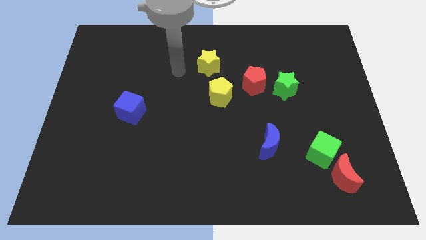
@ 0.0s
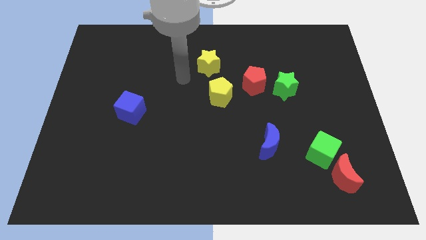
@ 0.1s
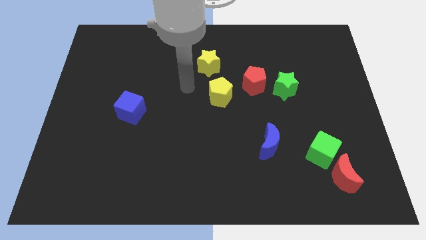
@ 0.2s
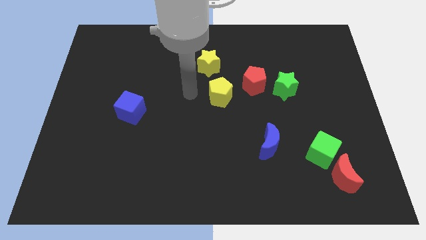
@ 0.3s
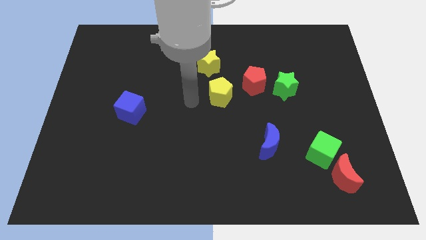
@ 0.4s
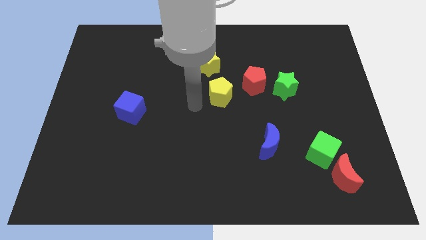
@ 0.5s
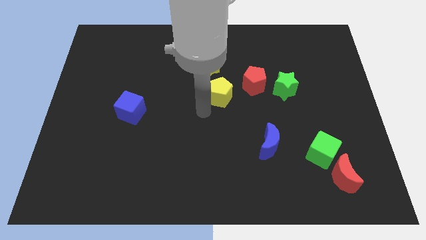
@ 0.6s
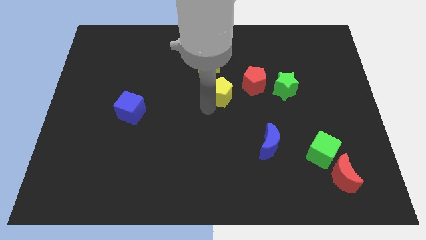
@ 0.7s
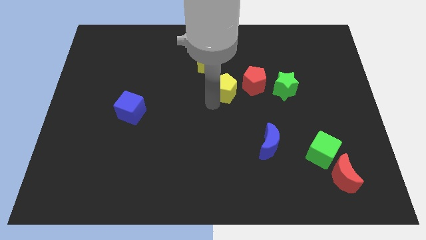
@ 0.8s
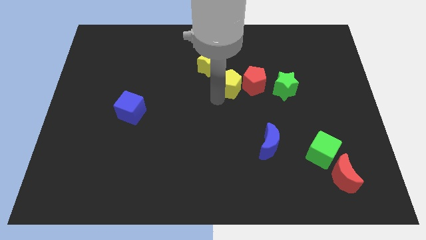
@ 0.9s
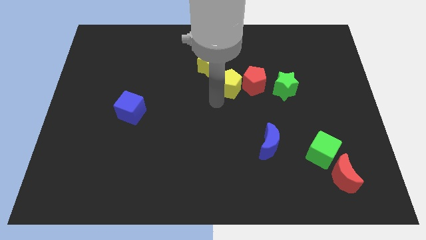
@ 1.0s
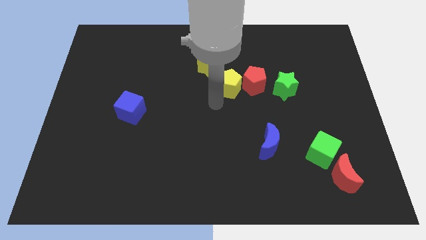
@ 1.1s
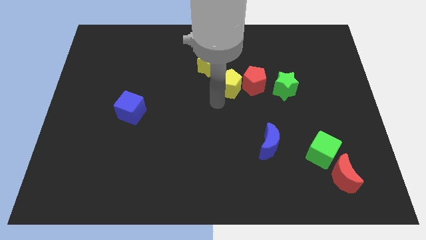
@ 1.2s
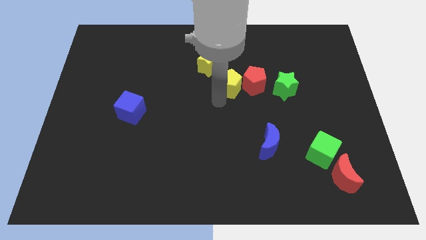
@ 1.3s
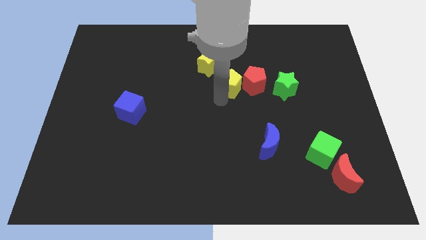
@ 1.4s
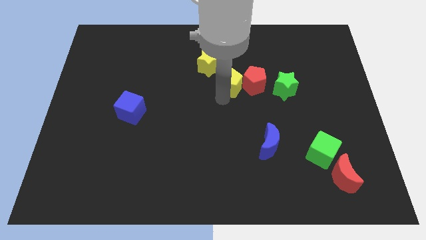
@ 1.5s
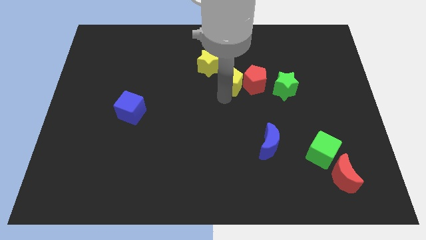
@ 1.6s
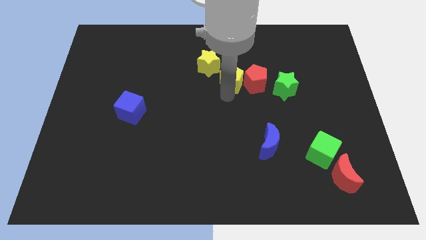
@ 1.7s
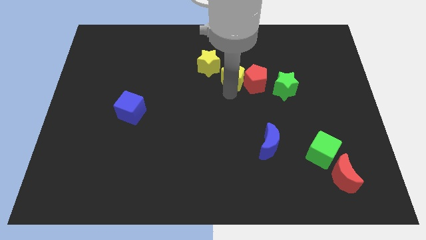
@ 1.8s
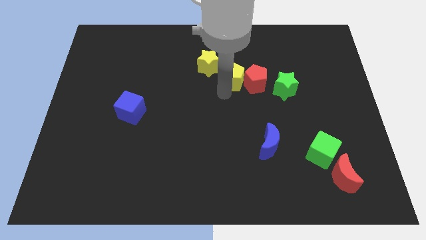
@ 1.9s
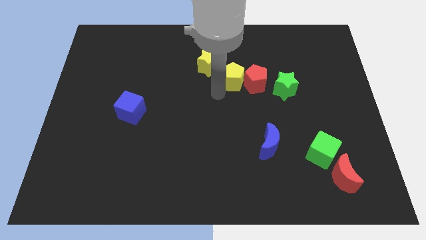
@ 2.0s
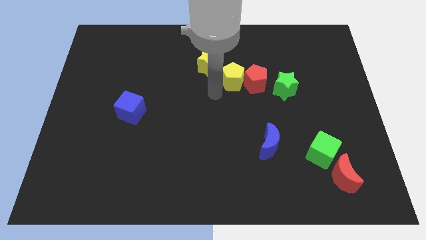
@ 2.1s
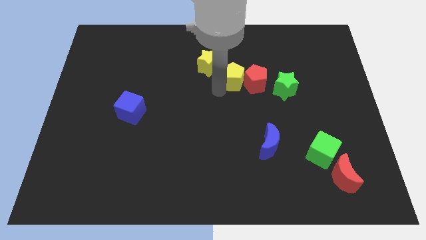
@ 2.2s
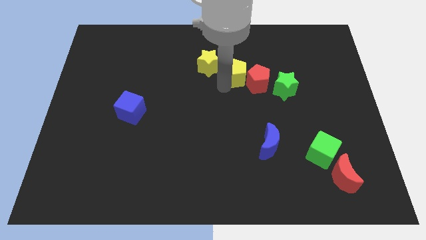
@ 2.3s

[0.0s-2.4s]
slide the yellow pentagon upwards and right diagonally a little

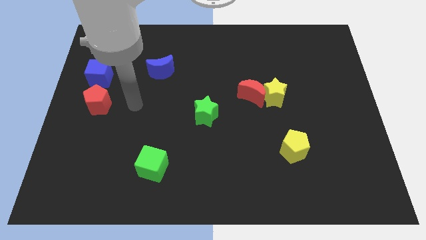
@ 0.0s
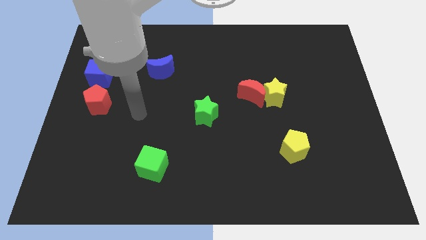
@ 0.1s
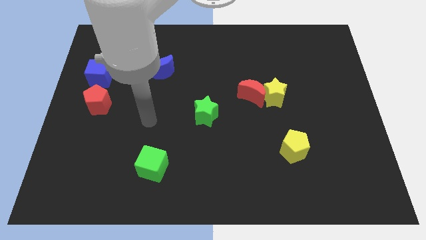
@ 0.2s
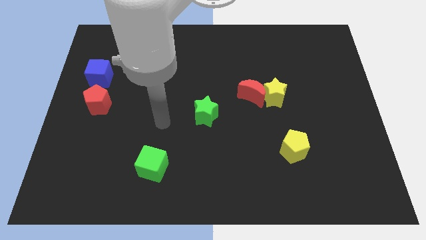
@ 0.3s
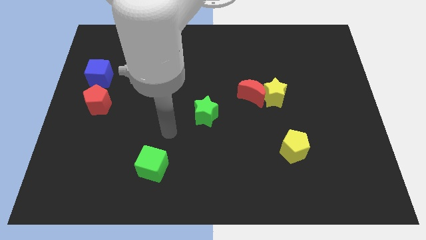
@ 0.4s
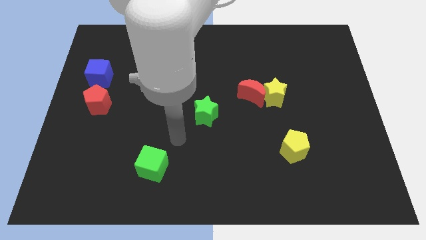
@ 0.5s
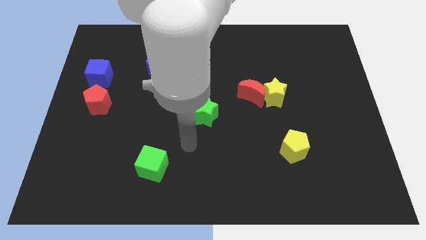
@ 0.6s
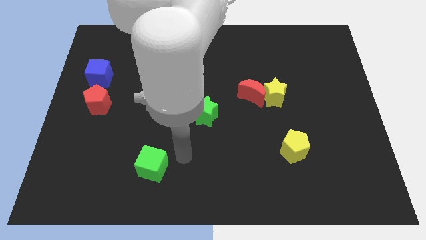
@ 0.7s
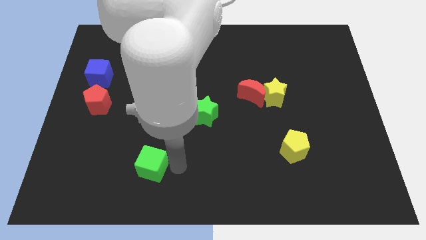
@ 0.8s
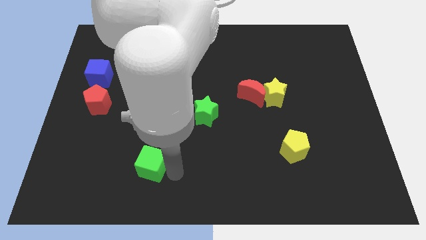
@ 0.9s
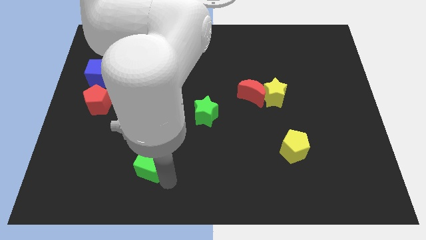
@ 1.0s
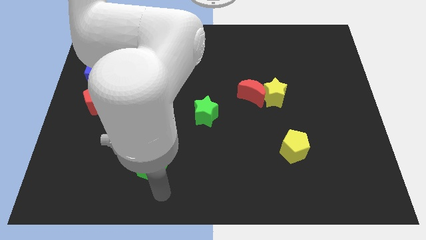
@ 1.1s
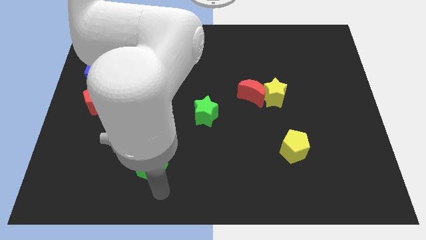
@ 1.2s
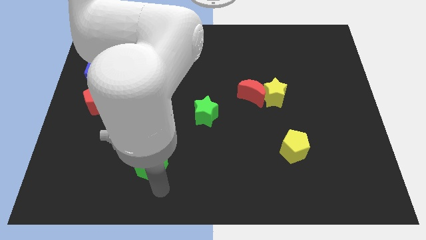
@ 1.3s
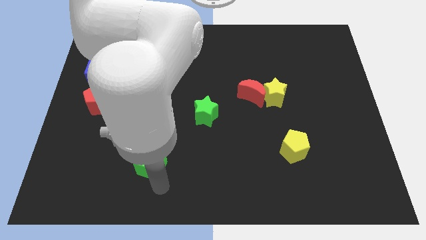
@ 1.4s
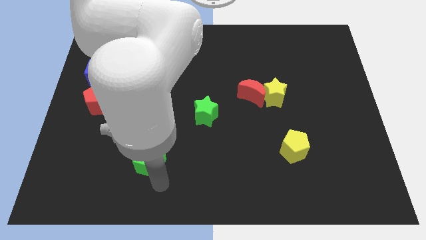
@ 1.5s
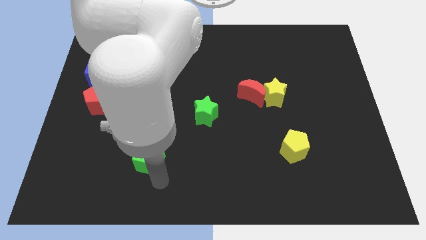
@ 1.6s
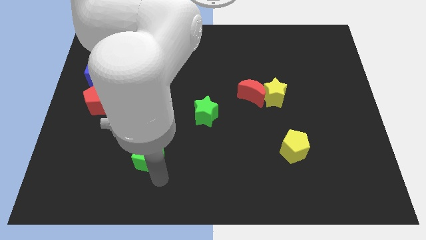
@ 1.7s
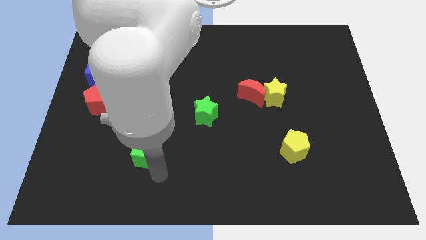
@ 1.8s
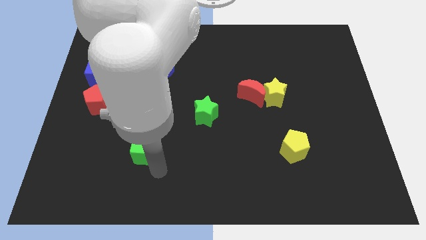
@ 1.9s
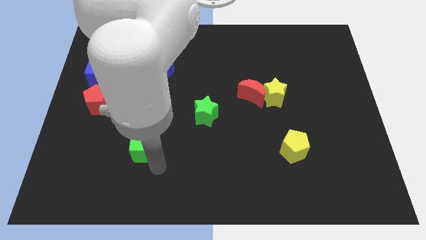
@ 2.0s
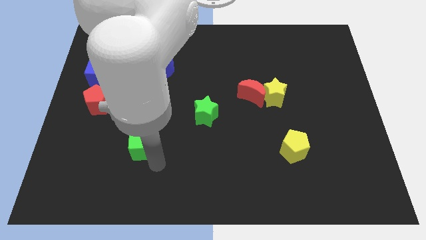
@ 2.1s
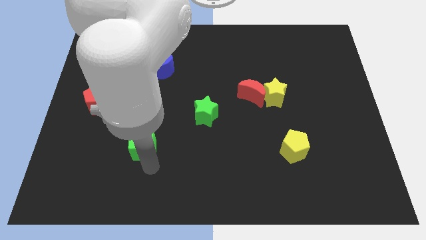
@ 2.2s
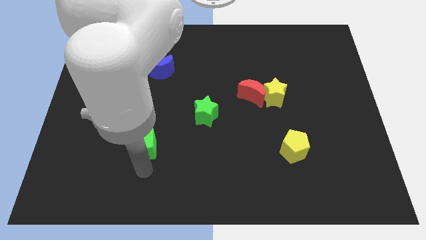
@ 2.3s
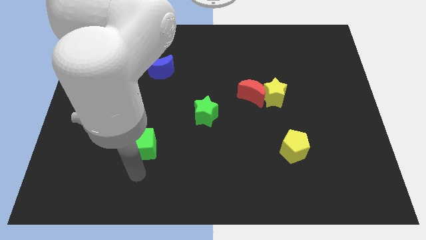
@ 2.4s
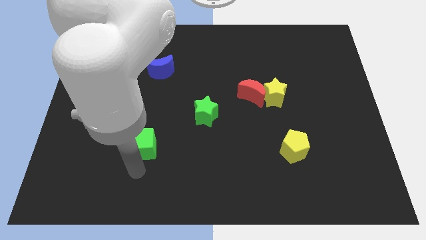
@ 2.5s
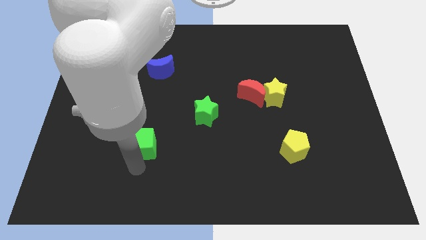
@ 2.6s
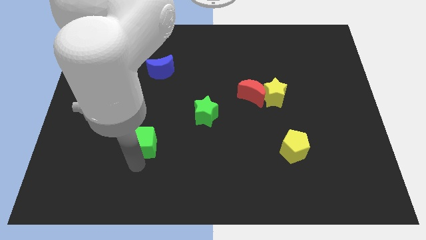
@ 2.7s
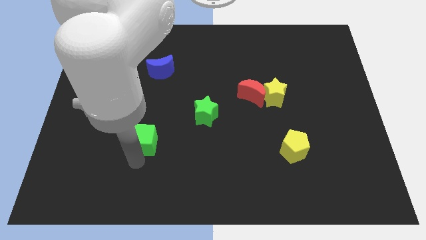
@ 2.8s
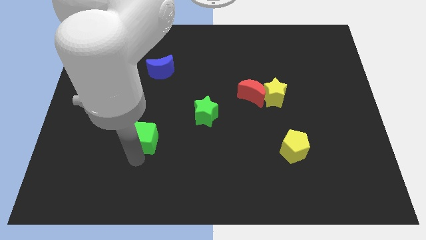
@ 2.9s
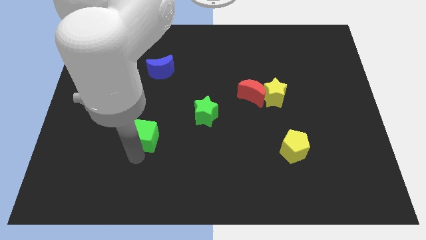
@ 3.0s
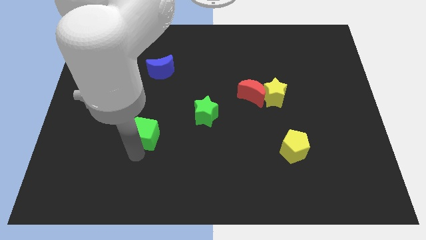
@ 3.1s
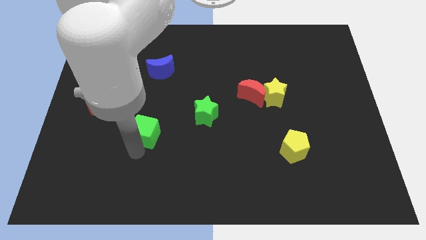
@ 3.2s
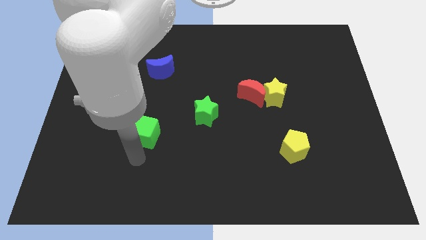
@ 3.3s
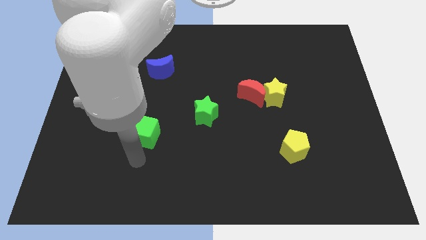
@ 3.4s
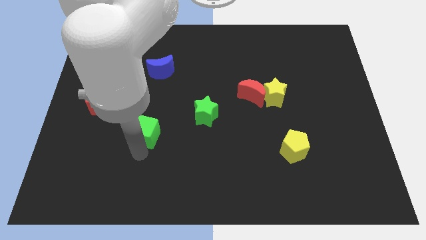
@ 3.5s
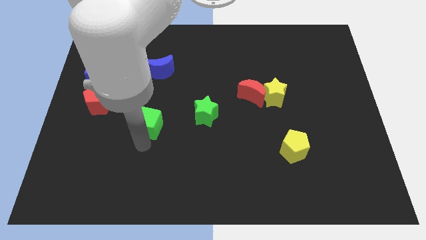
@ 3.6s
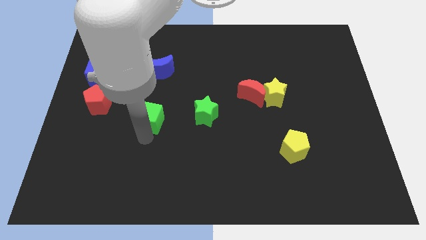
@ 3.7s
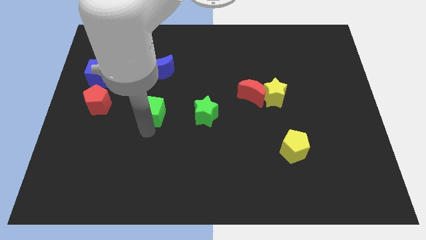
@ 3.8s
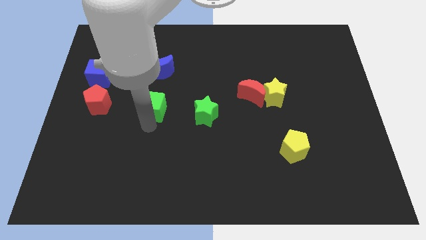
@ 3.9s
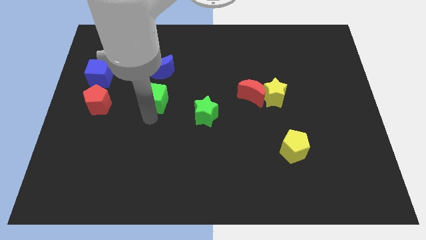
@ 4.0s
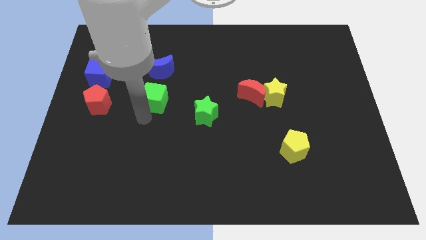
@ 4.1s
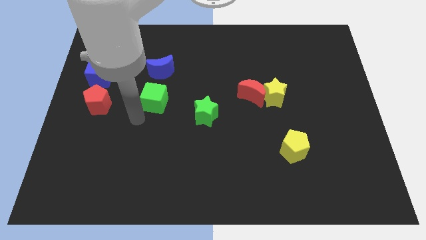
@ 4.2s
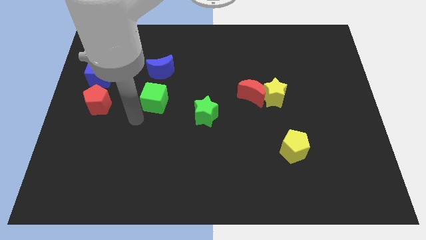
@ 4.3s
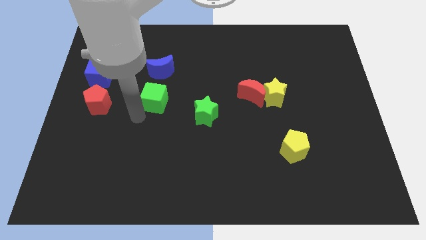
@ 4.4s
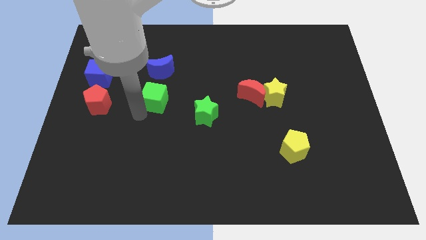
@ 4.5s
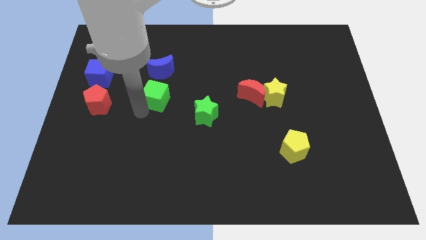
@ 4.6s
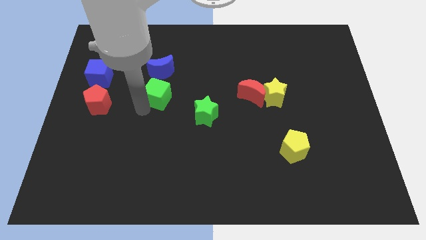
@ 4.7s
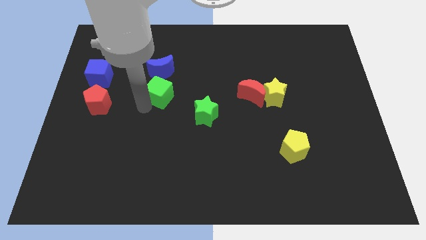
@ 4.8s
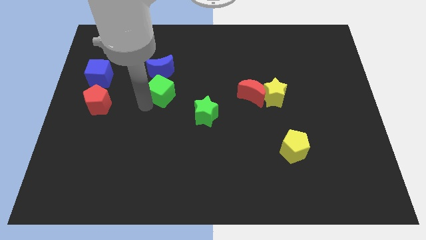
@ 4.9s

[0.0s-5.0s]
slide the green cube upwards

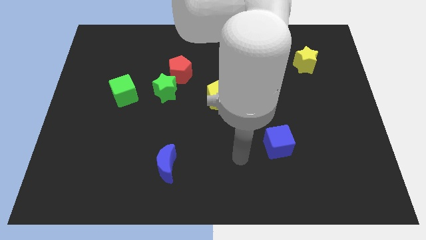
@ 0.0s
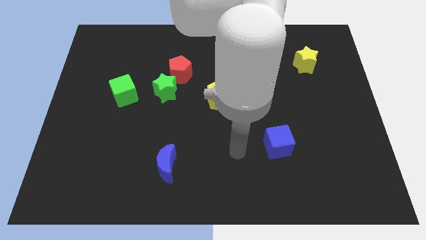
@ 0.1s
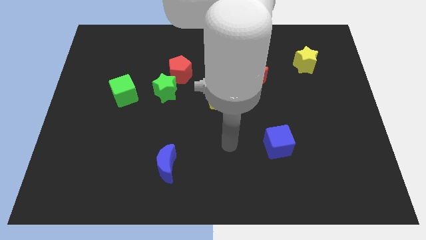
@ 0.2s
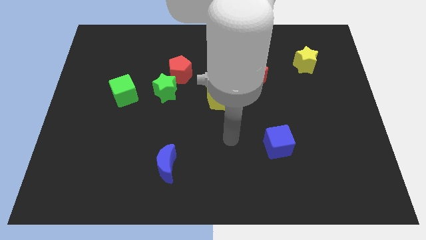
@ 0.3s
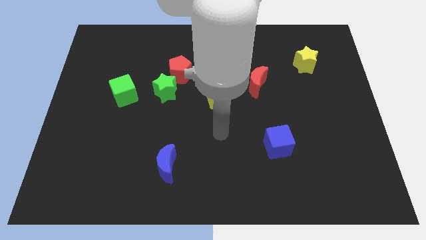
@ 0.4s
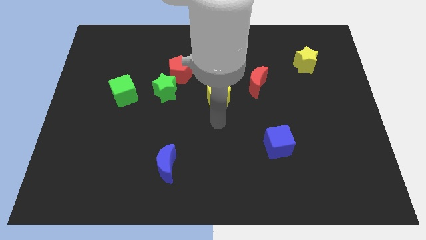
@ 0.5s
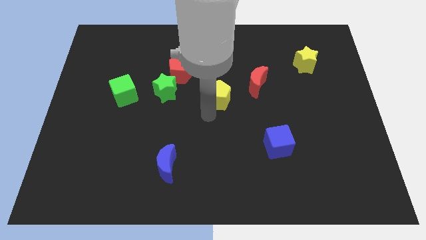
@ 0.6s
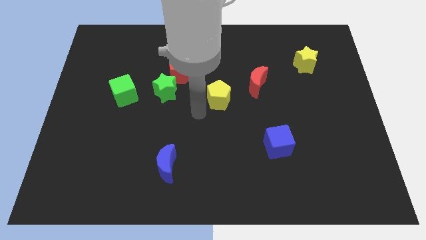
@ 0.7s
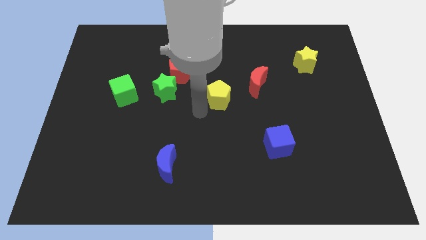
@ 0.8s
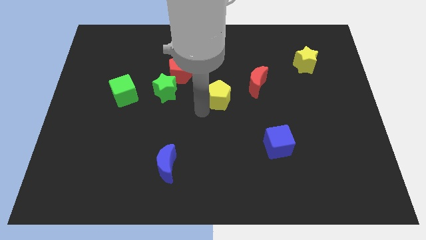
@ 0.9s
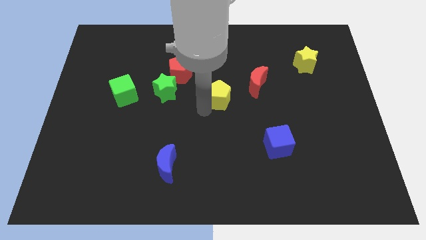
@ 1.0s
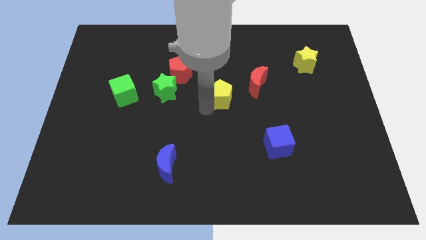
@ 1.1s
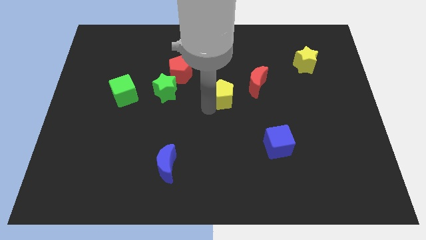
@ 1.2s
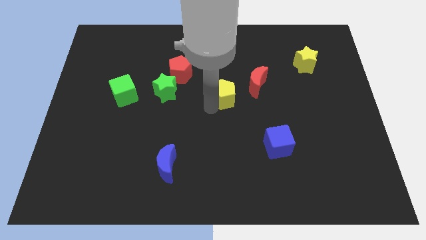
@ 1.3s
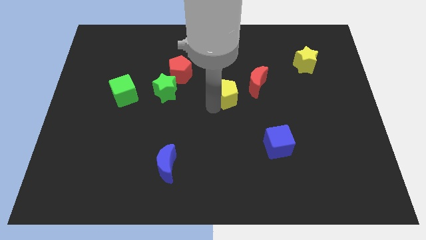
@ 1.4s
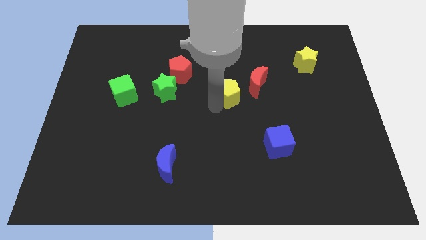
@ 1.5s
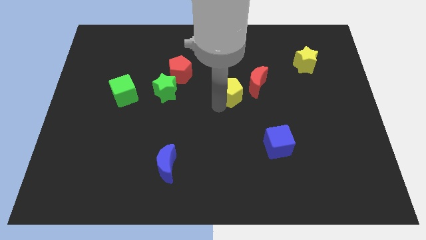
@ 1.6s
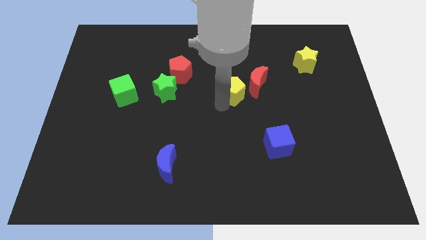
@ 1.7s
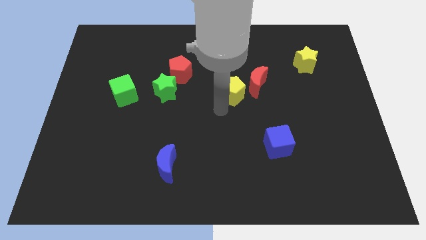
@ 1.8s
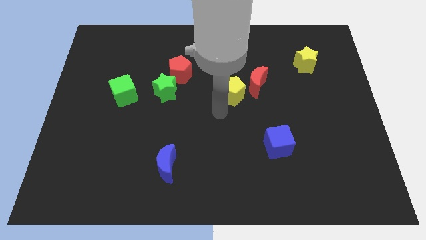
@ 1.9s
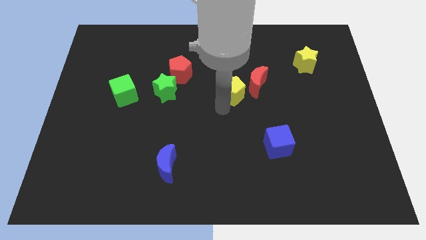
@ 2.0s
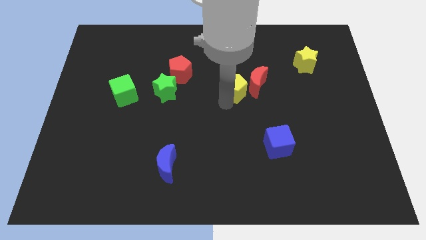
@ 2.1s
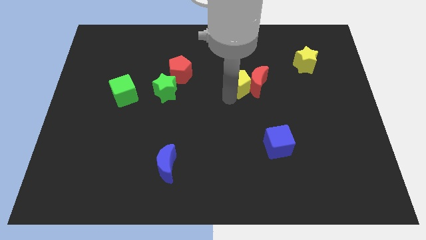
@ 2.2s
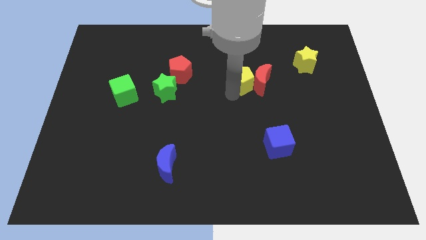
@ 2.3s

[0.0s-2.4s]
slightly push the yellow pentagon upwards and right diagonally
